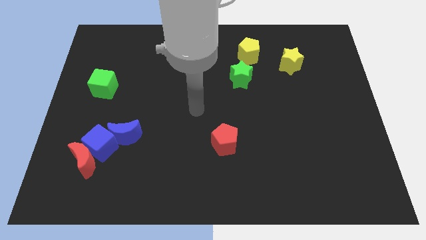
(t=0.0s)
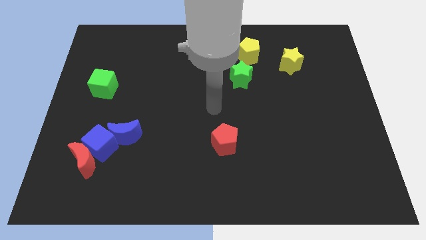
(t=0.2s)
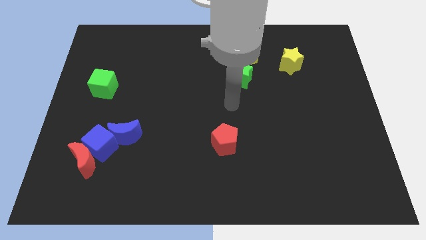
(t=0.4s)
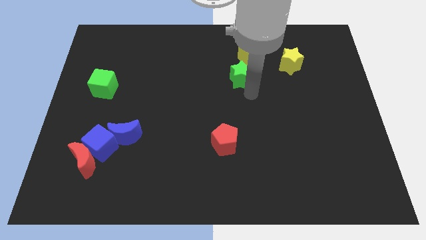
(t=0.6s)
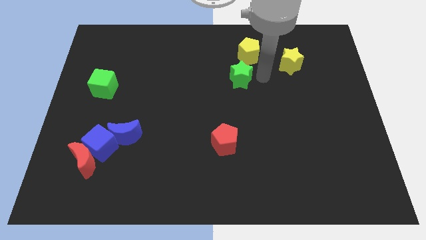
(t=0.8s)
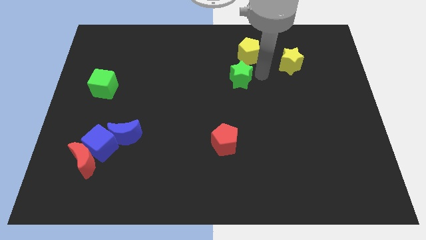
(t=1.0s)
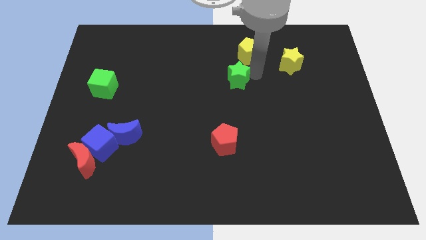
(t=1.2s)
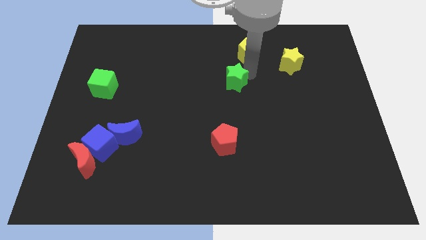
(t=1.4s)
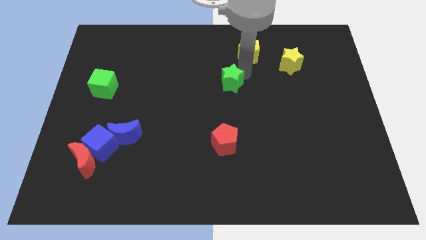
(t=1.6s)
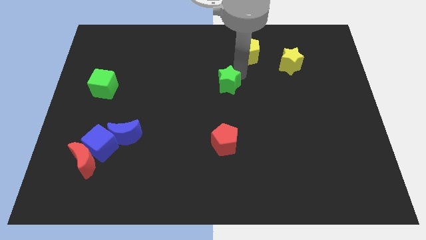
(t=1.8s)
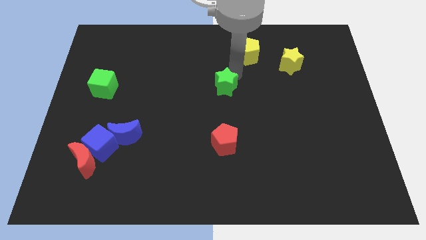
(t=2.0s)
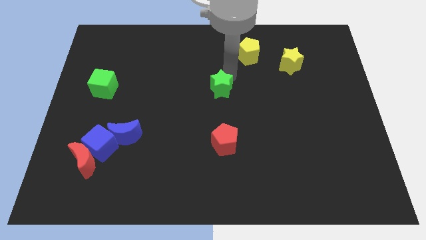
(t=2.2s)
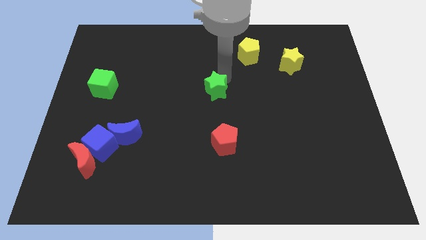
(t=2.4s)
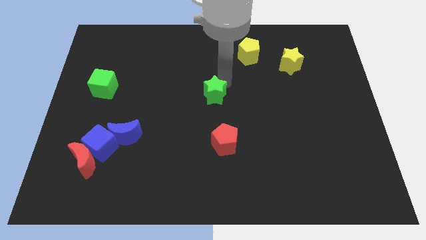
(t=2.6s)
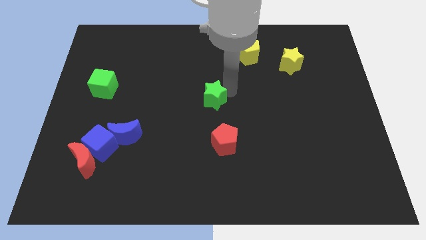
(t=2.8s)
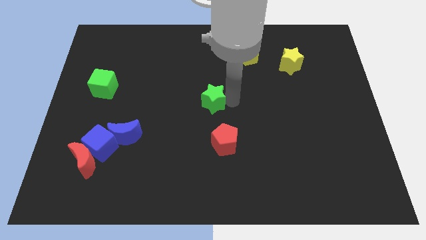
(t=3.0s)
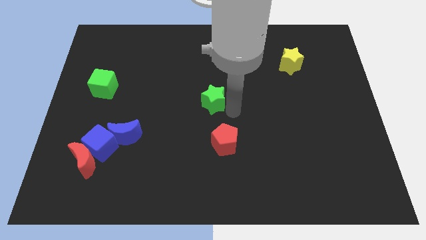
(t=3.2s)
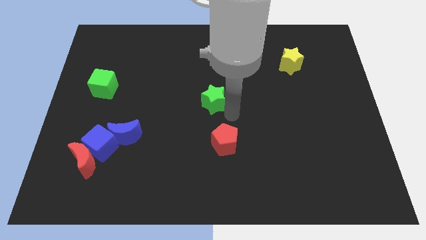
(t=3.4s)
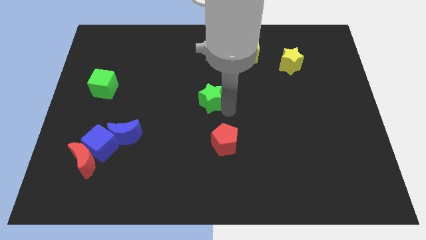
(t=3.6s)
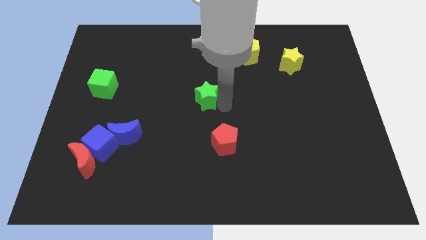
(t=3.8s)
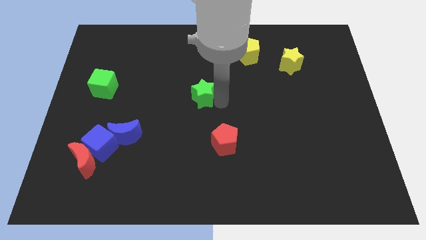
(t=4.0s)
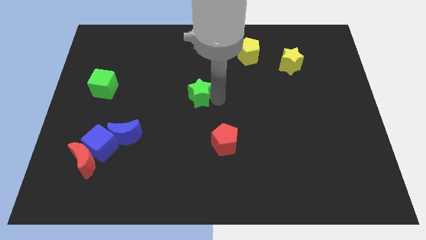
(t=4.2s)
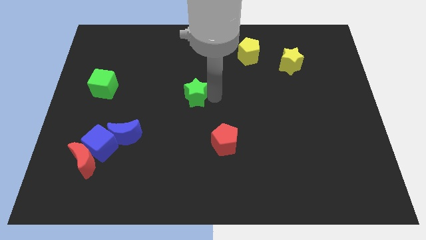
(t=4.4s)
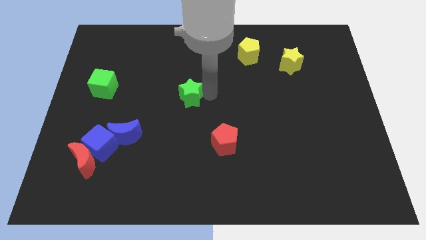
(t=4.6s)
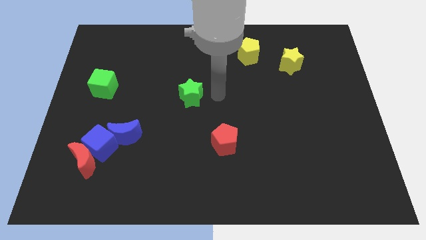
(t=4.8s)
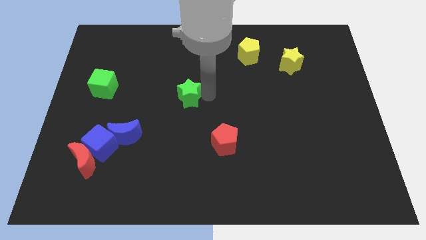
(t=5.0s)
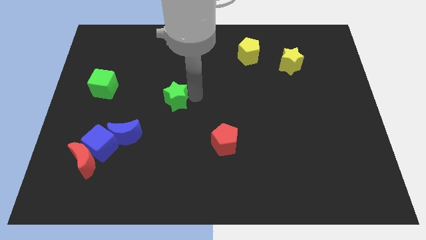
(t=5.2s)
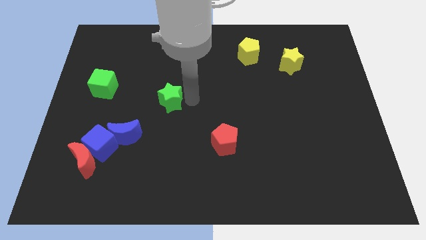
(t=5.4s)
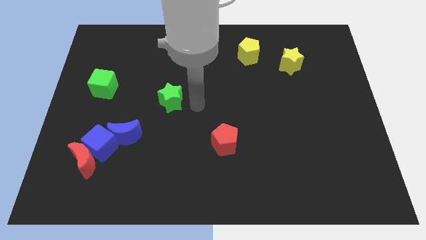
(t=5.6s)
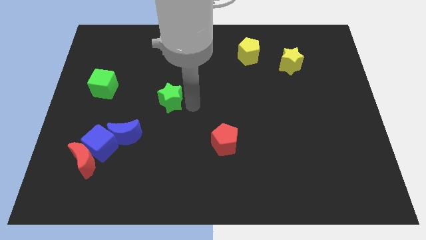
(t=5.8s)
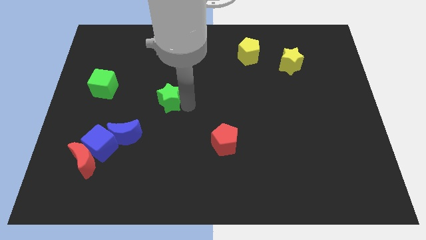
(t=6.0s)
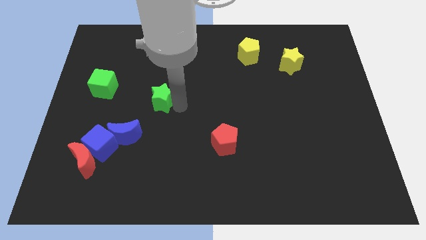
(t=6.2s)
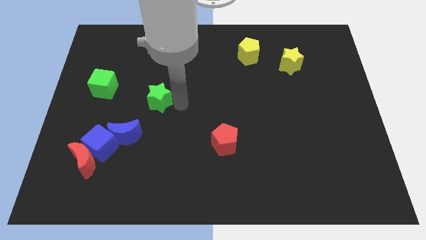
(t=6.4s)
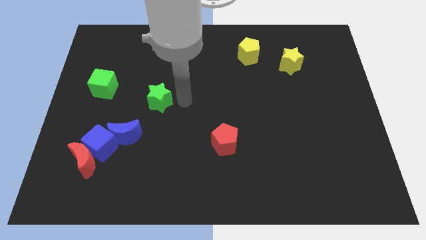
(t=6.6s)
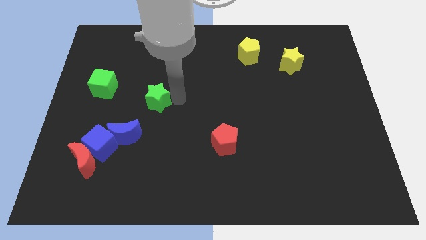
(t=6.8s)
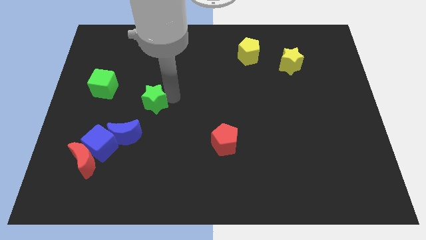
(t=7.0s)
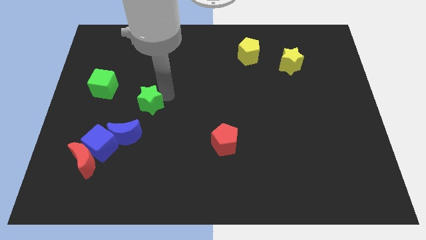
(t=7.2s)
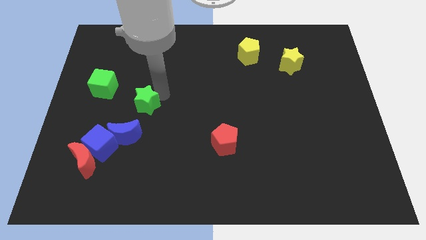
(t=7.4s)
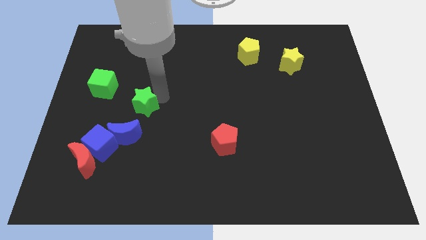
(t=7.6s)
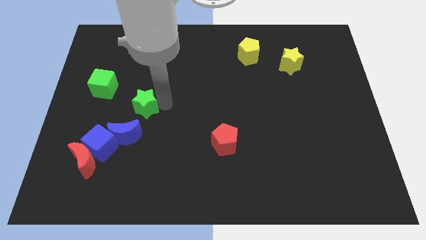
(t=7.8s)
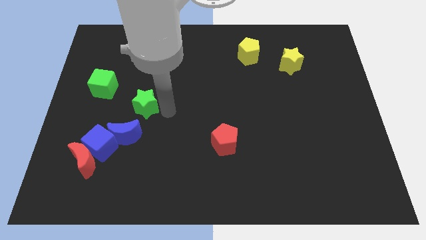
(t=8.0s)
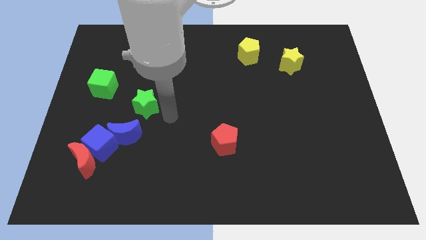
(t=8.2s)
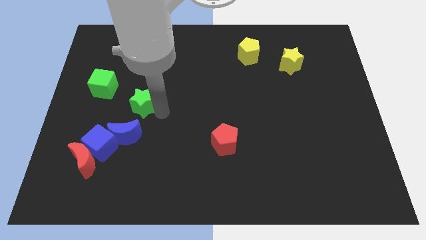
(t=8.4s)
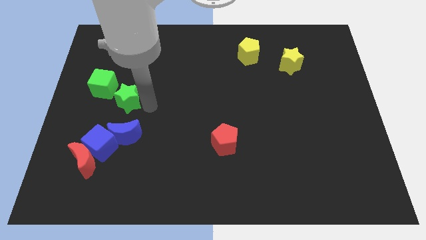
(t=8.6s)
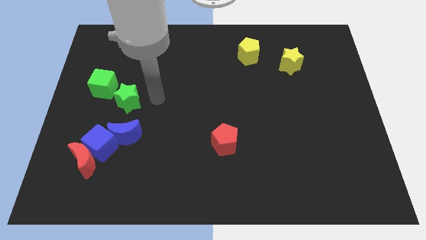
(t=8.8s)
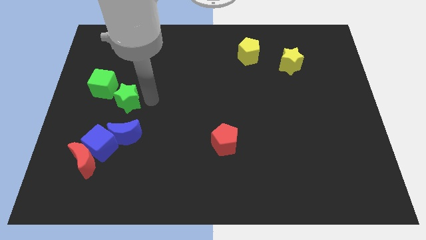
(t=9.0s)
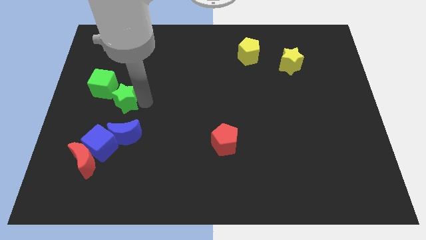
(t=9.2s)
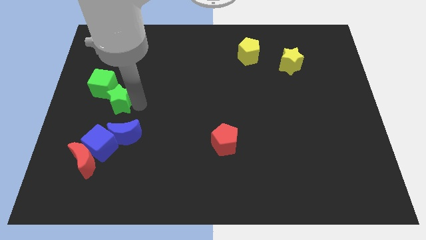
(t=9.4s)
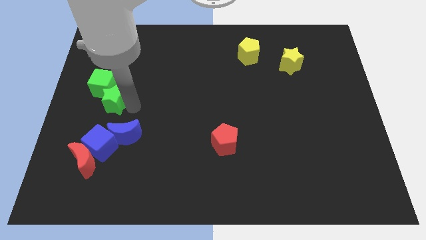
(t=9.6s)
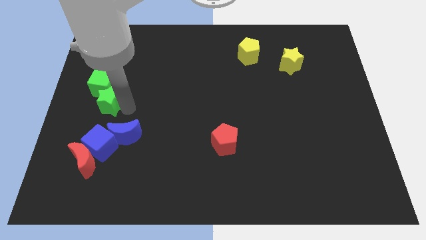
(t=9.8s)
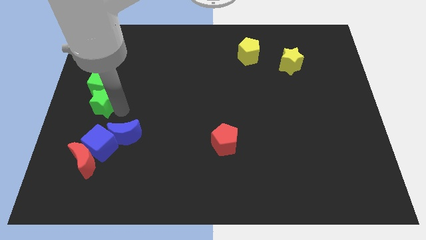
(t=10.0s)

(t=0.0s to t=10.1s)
push the green star to the left side

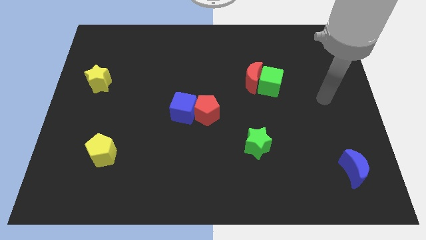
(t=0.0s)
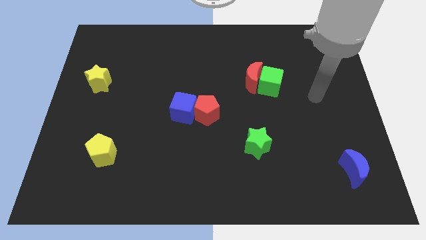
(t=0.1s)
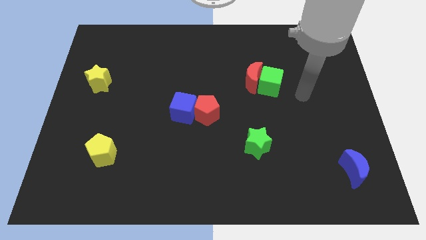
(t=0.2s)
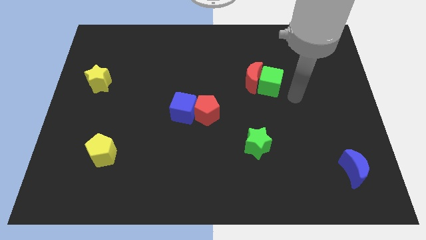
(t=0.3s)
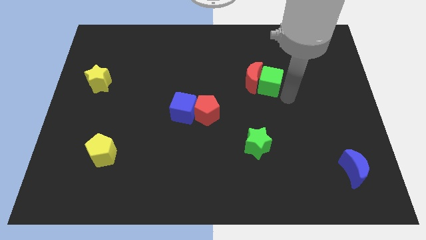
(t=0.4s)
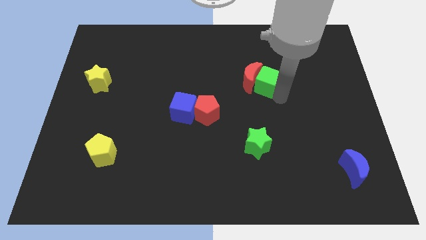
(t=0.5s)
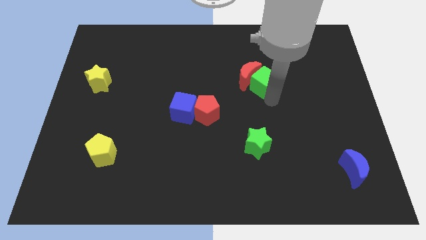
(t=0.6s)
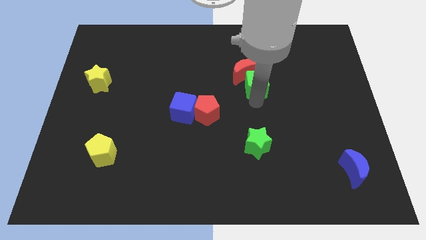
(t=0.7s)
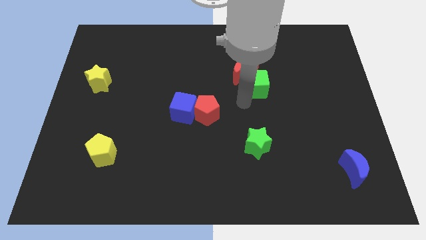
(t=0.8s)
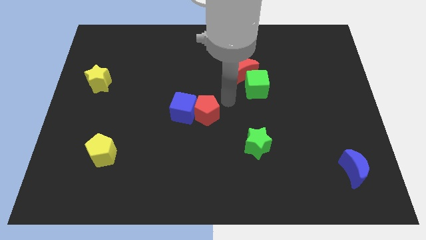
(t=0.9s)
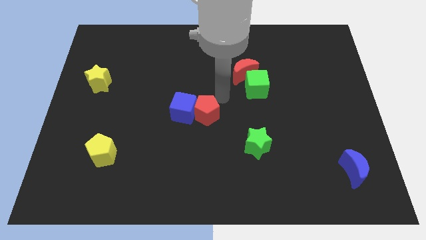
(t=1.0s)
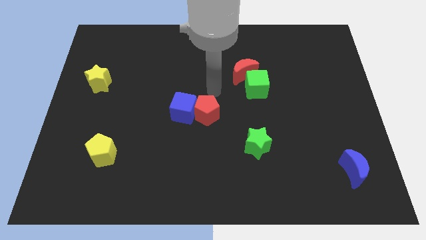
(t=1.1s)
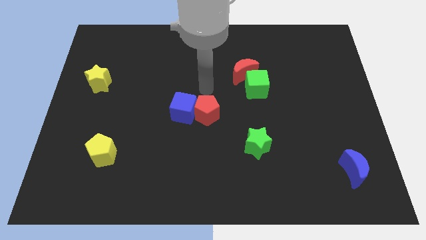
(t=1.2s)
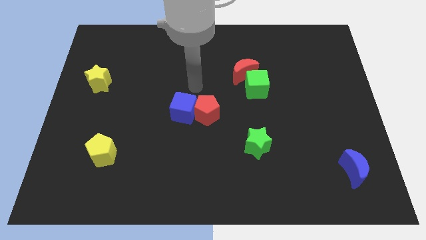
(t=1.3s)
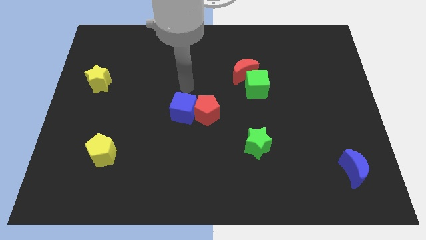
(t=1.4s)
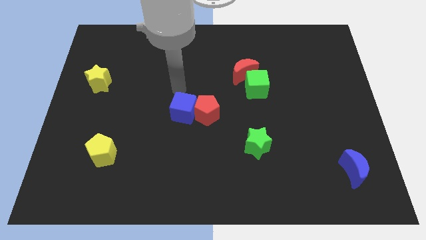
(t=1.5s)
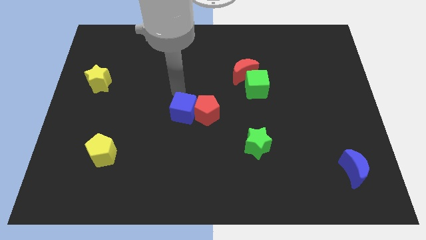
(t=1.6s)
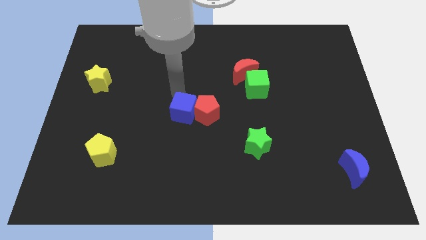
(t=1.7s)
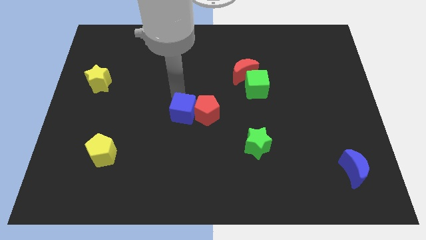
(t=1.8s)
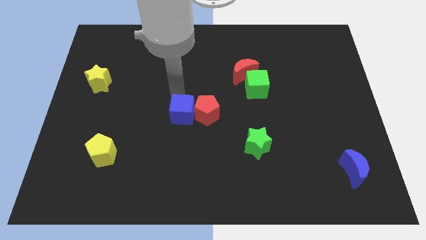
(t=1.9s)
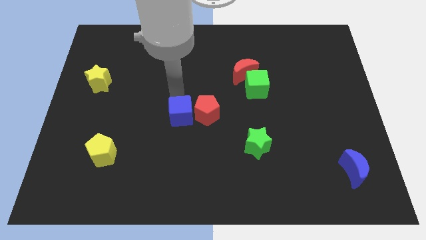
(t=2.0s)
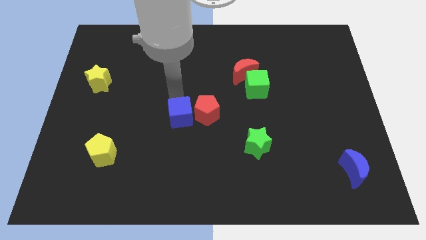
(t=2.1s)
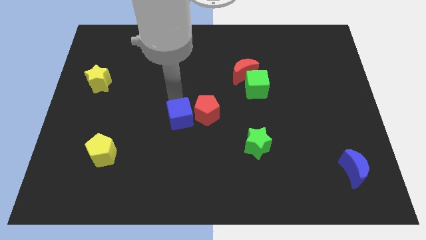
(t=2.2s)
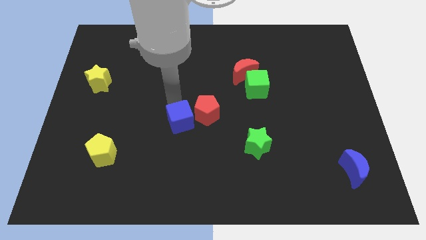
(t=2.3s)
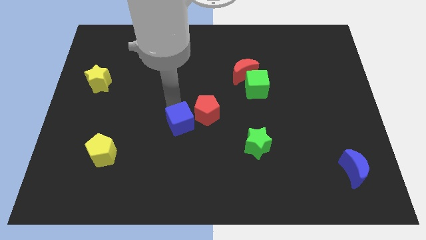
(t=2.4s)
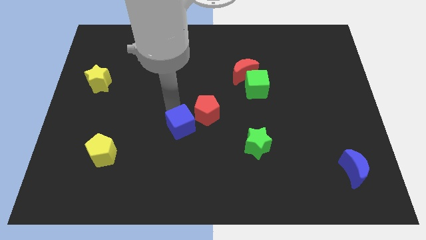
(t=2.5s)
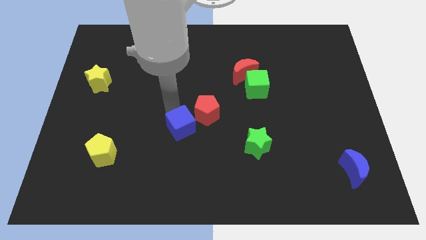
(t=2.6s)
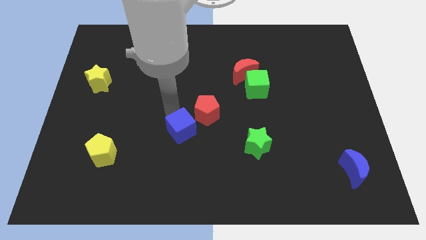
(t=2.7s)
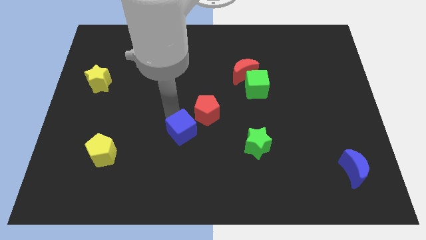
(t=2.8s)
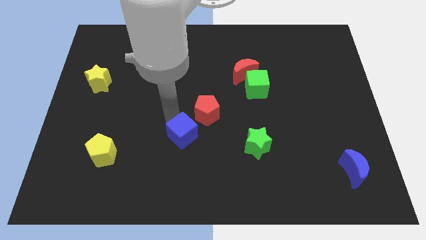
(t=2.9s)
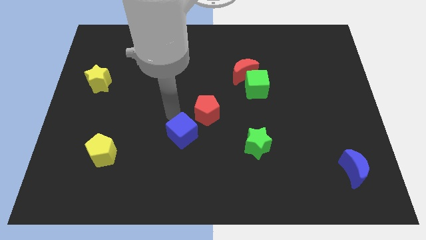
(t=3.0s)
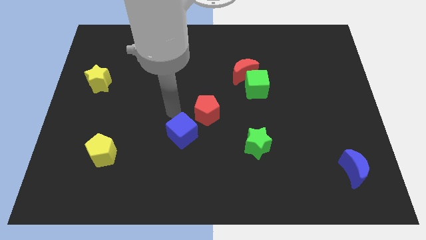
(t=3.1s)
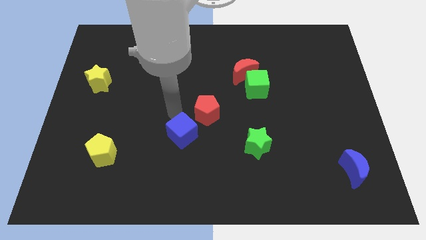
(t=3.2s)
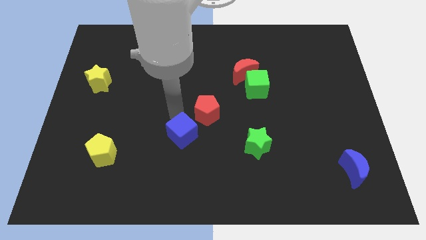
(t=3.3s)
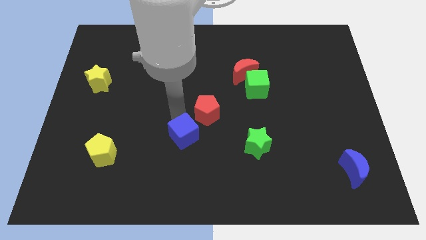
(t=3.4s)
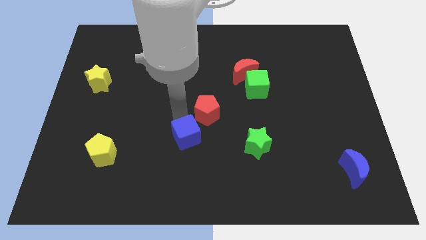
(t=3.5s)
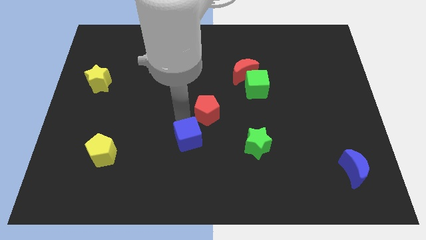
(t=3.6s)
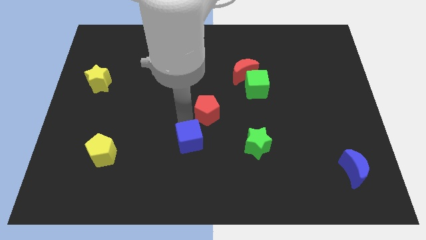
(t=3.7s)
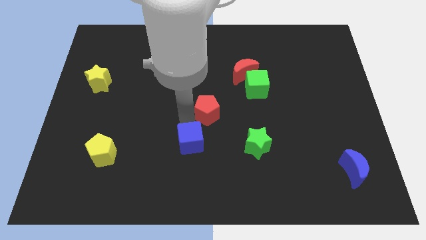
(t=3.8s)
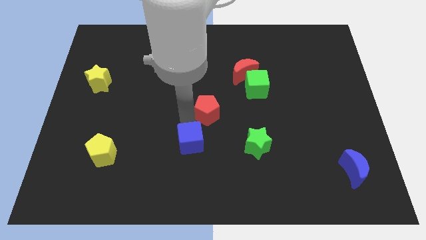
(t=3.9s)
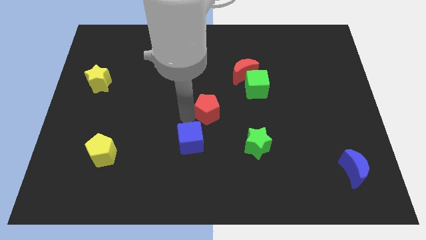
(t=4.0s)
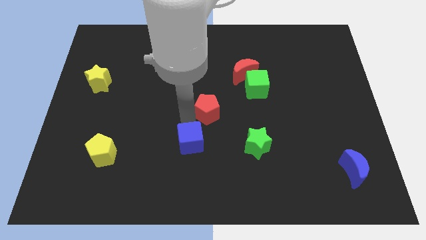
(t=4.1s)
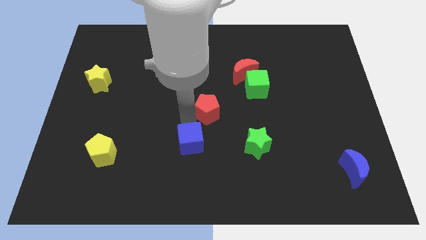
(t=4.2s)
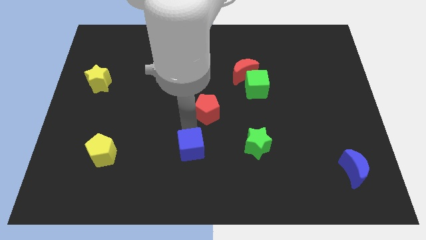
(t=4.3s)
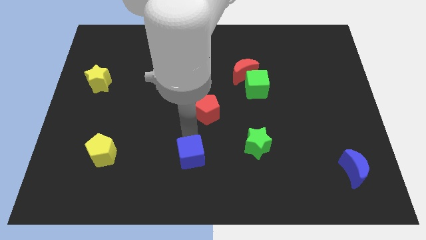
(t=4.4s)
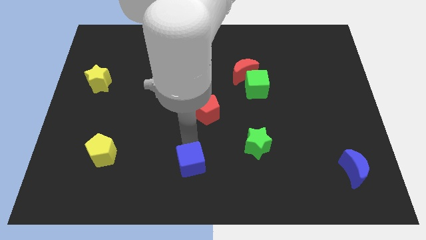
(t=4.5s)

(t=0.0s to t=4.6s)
slide the blue cube to the bottom side
